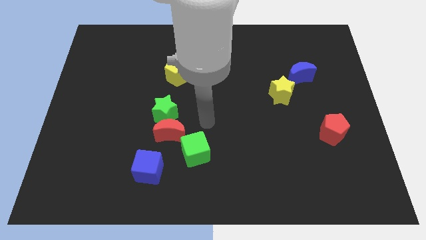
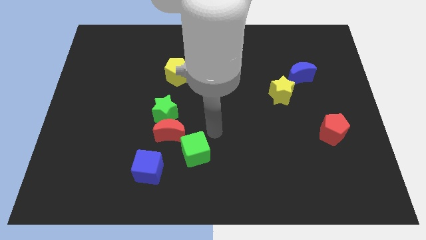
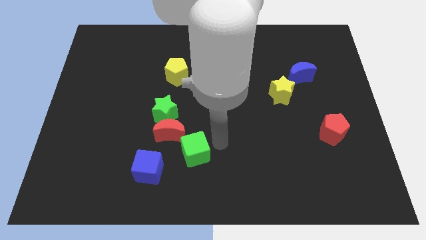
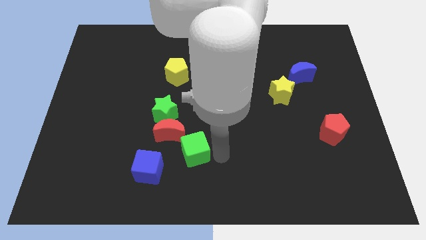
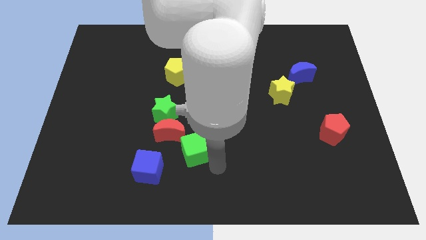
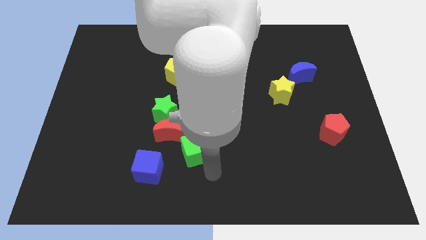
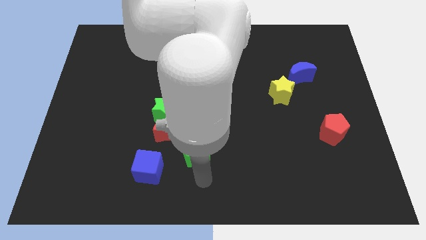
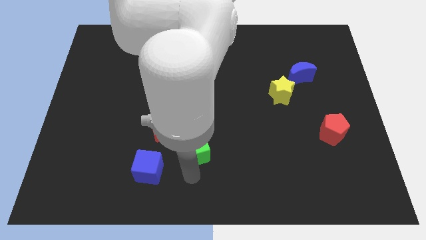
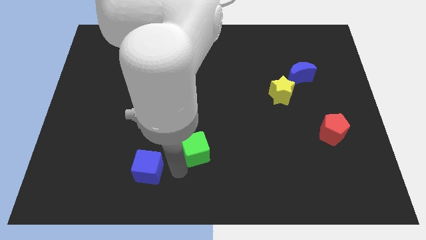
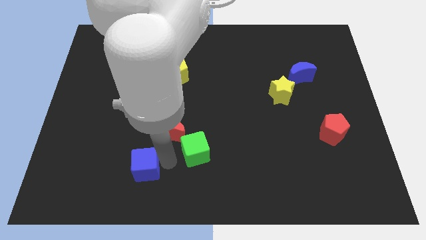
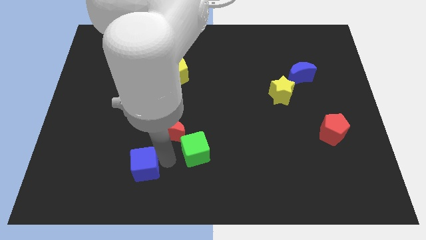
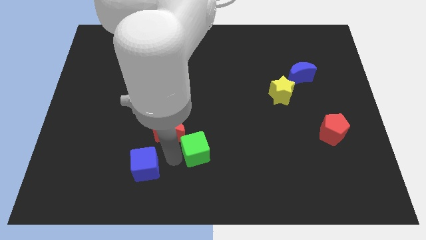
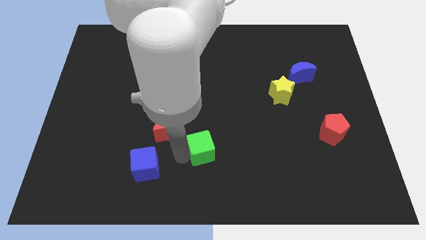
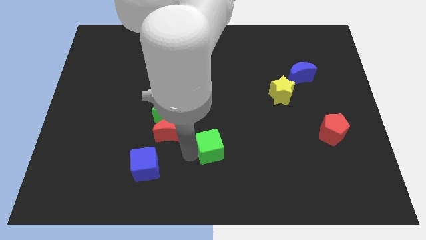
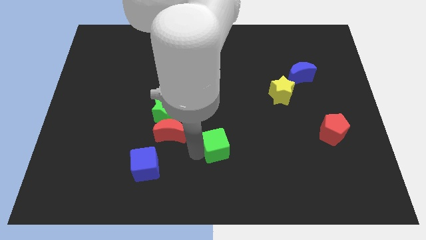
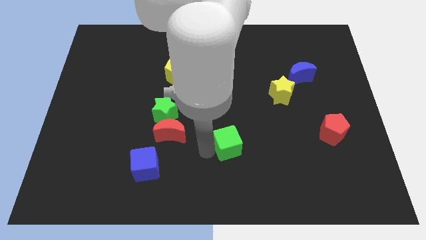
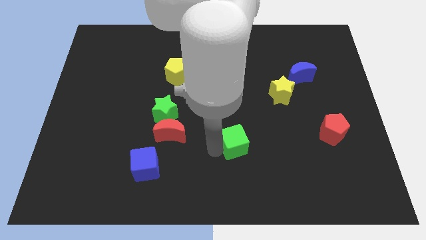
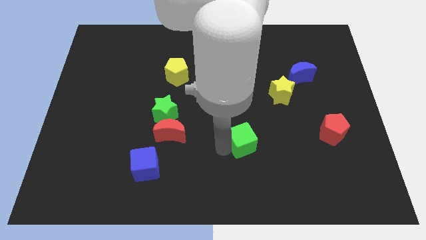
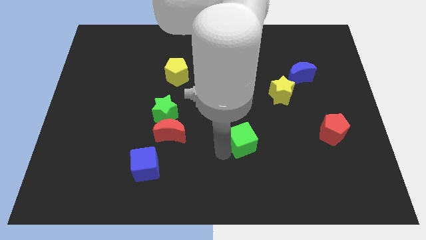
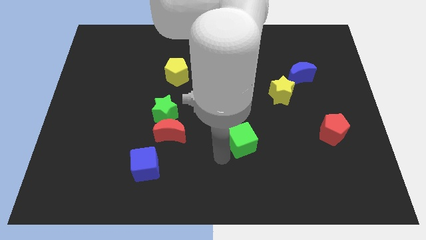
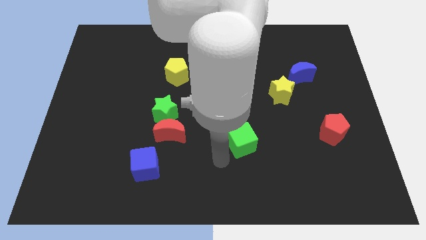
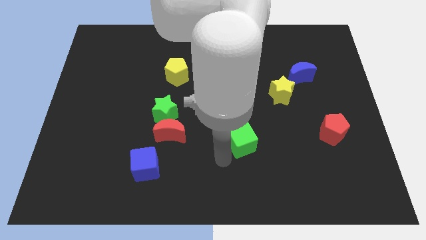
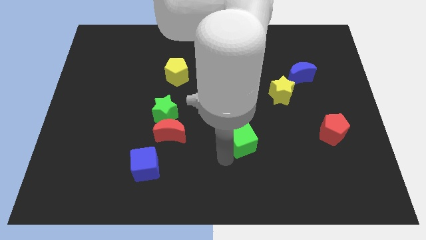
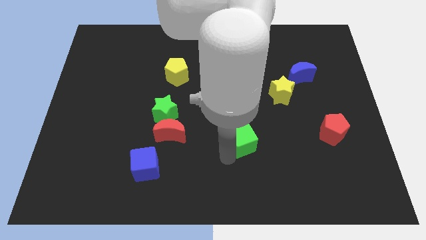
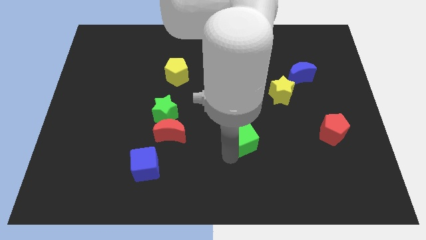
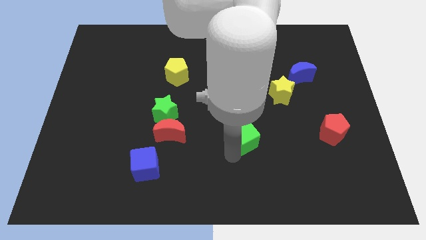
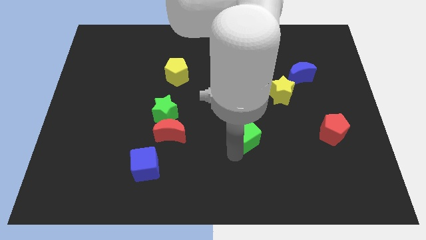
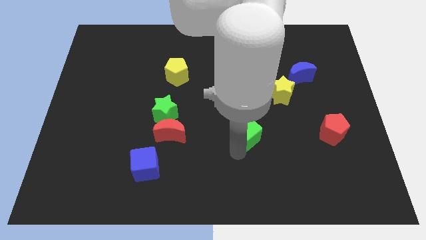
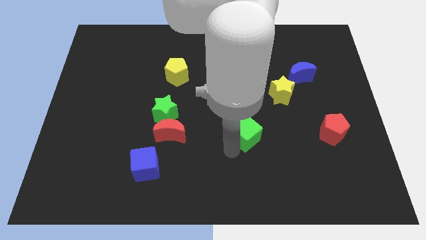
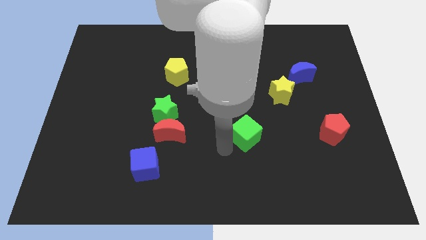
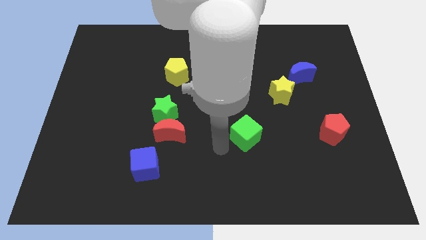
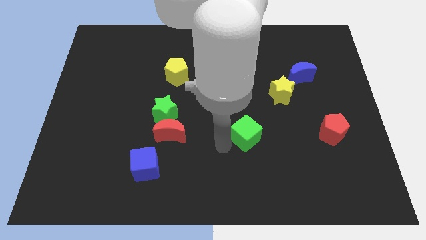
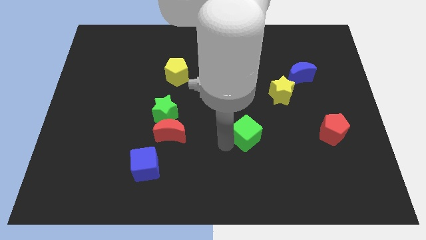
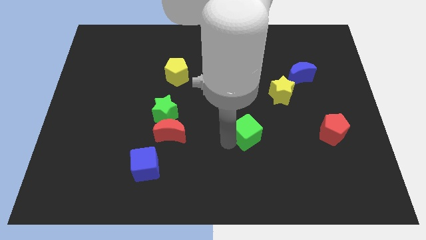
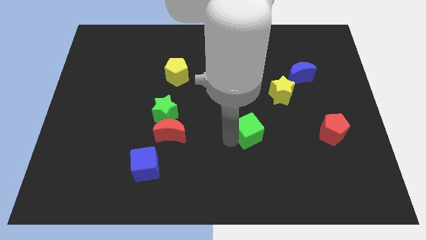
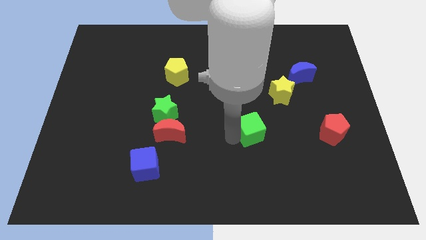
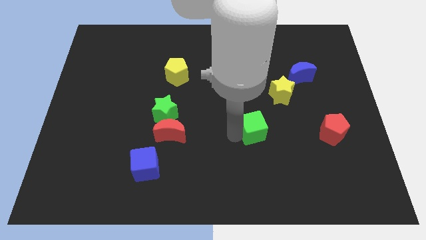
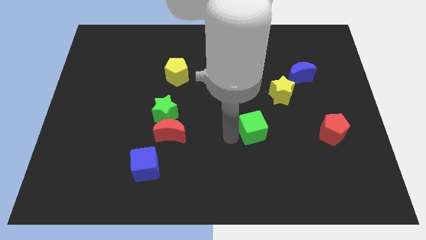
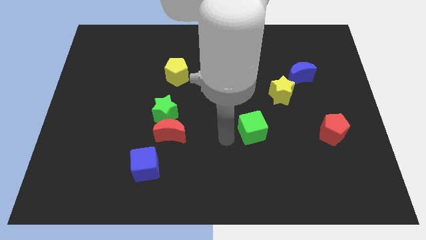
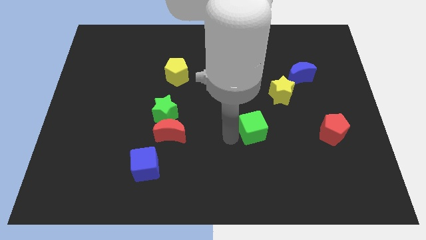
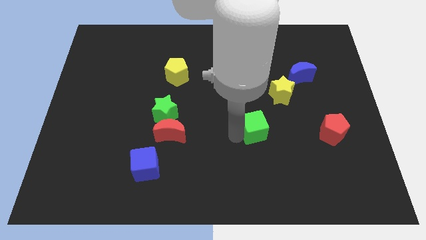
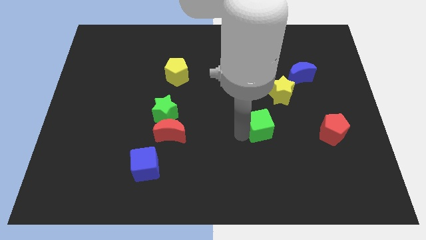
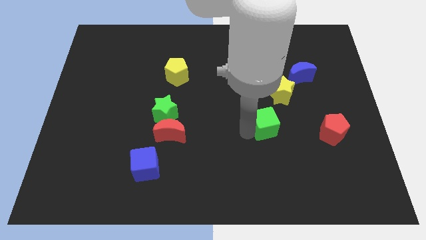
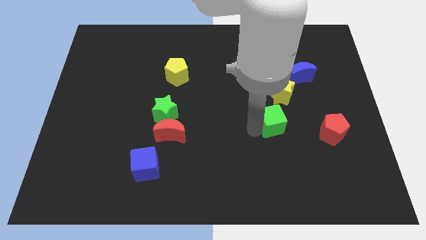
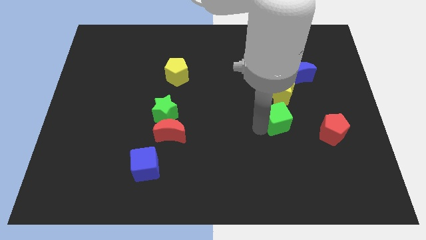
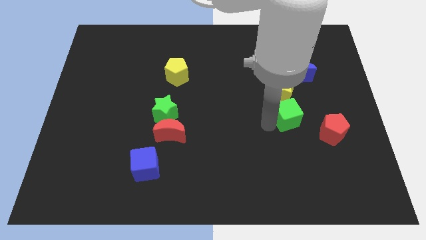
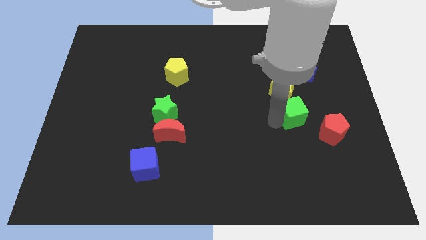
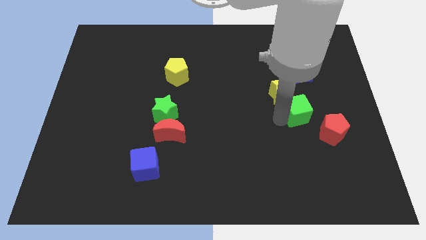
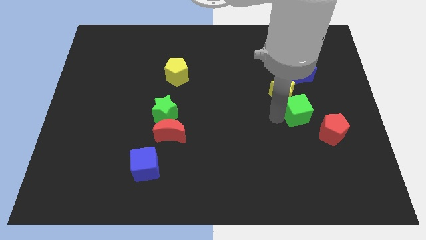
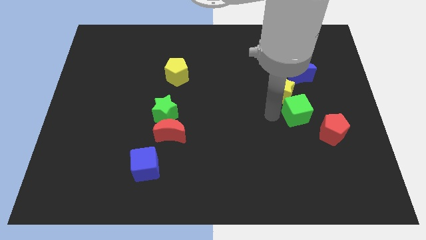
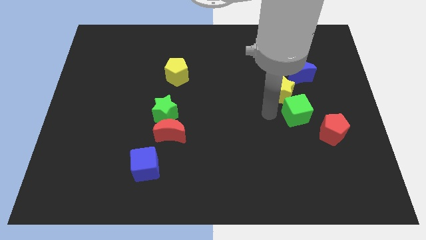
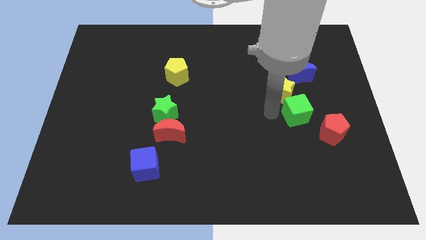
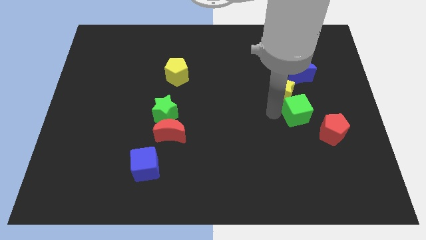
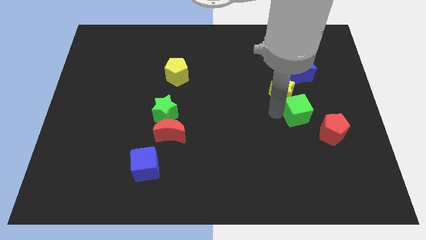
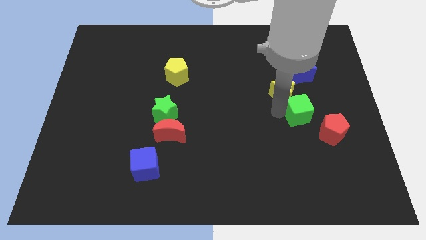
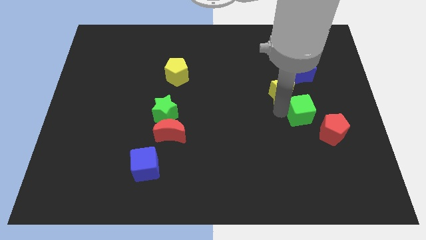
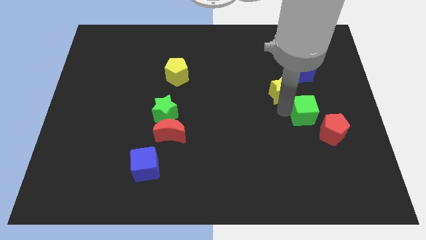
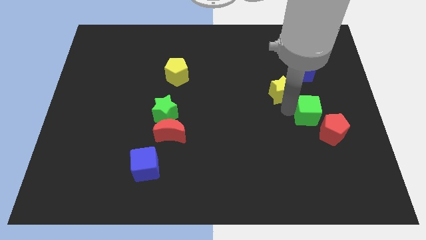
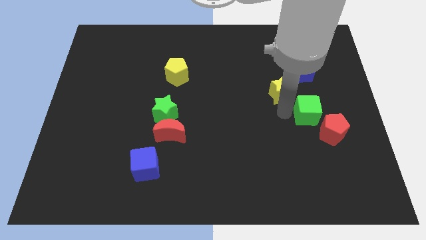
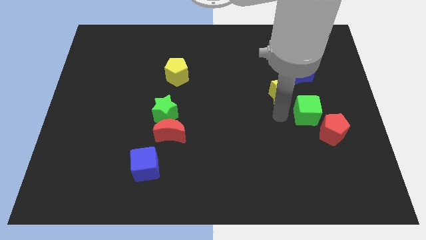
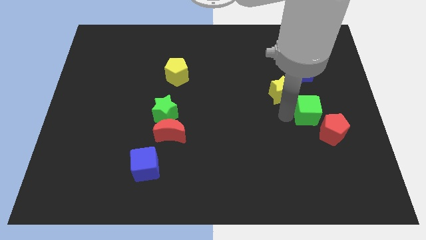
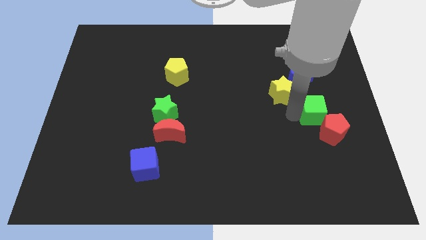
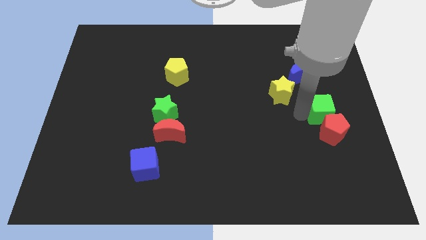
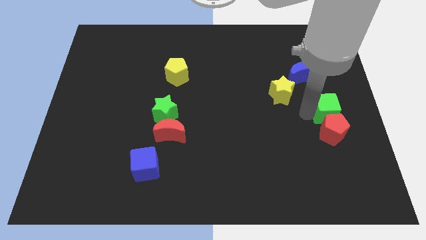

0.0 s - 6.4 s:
put the green cube to the center right

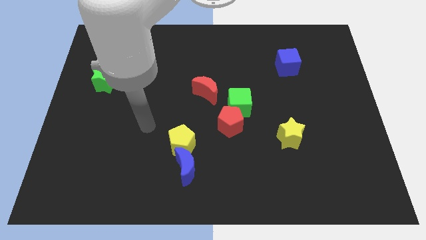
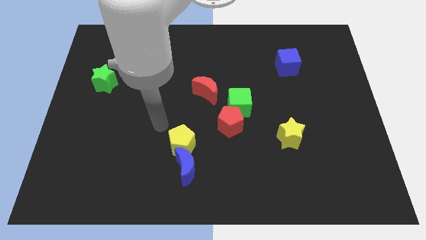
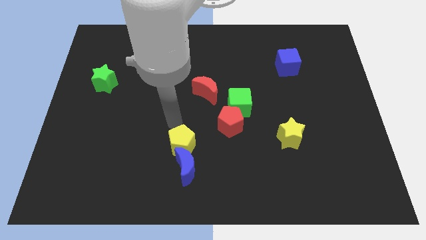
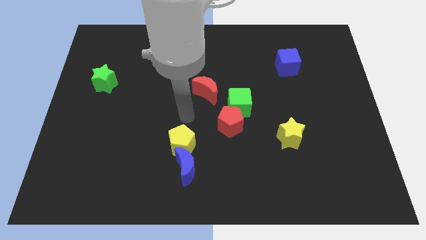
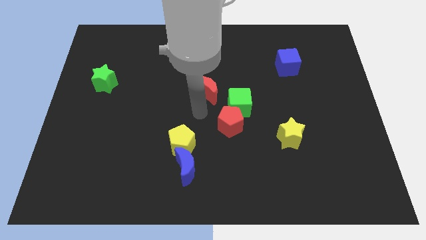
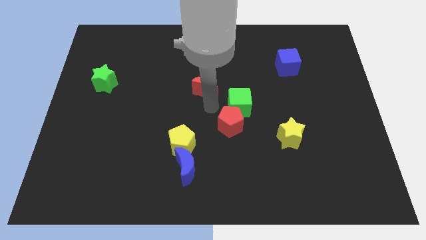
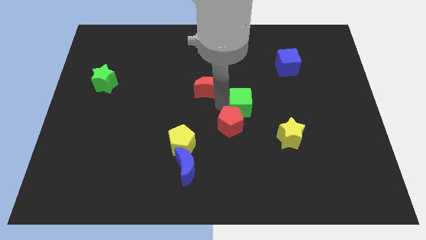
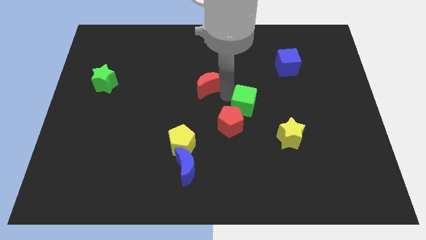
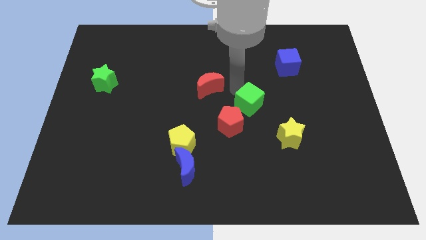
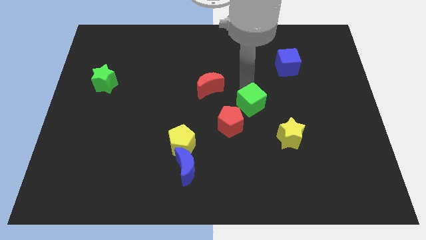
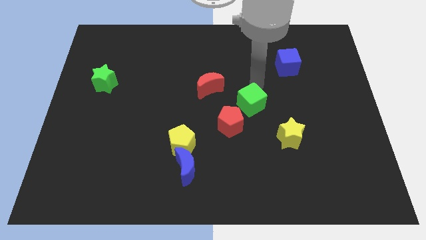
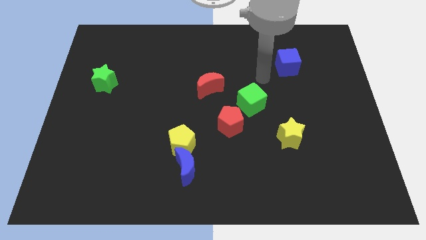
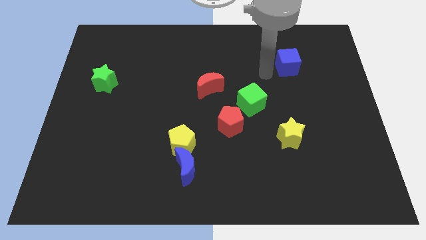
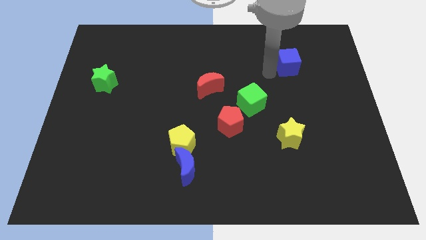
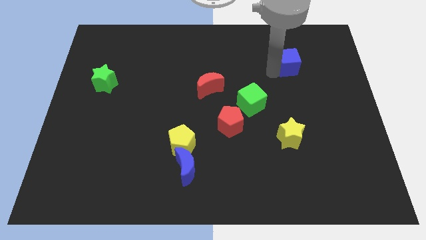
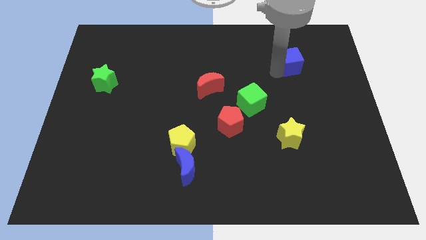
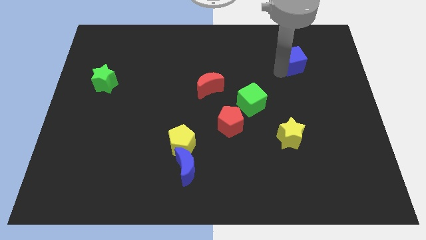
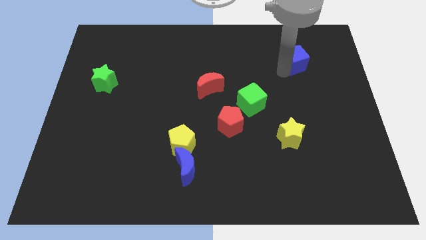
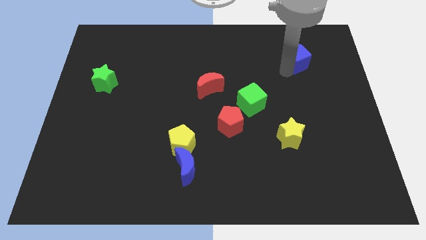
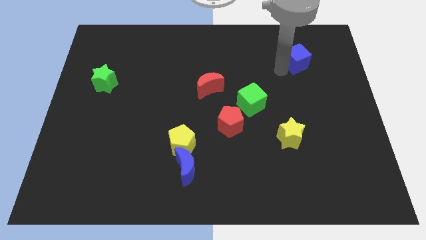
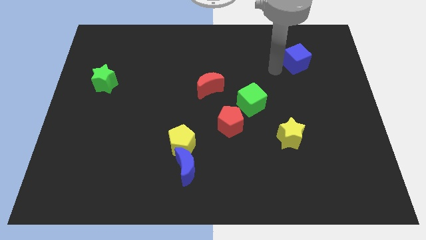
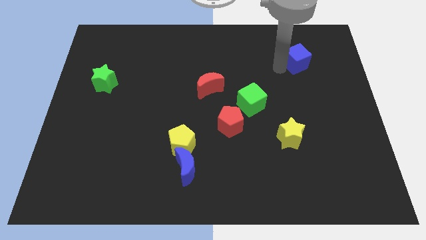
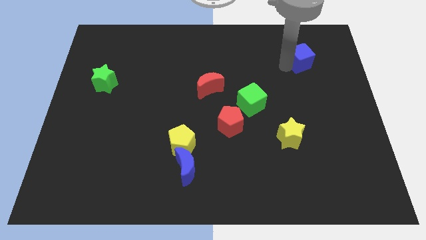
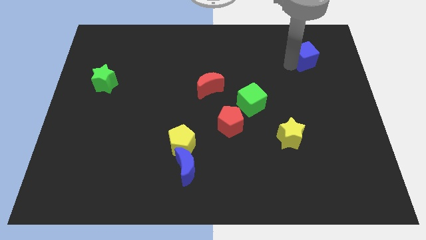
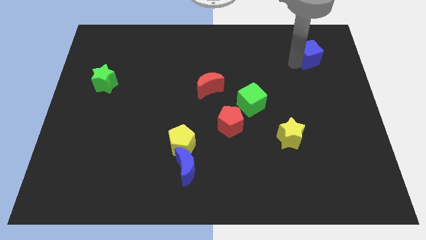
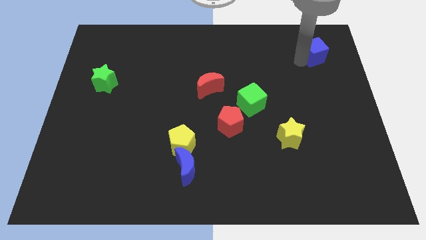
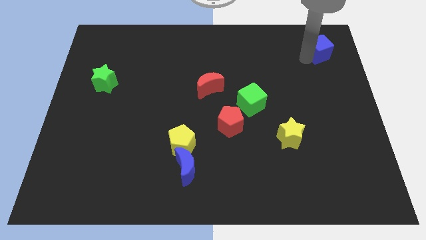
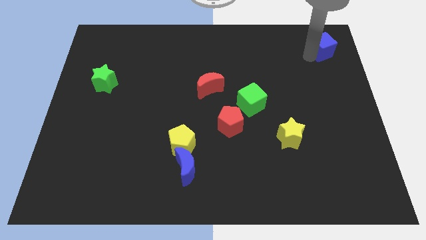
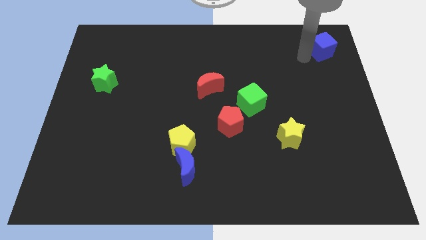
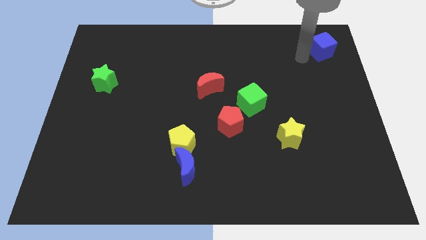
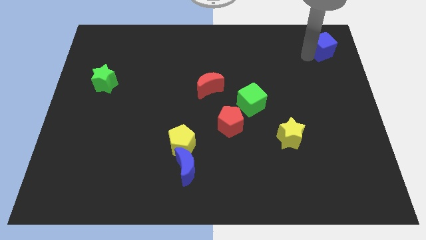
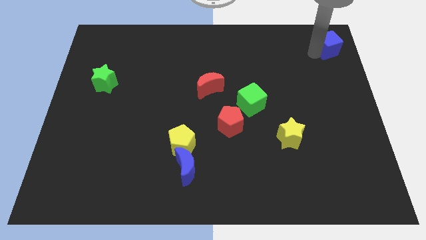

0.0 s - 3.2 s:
slide the blue cube to the top right corner
